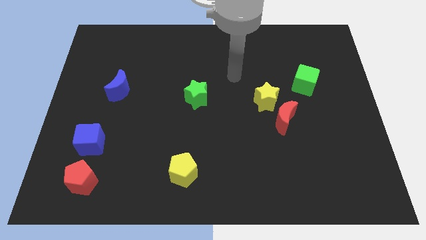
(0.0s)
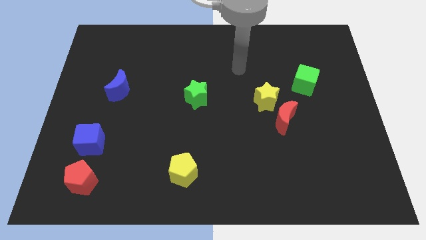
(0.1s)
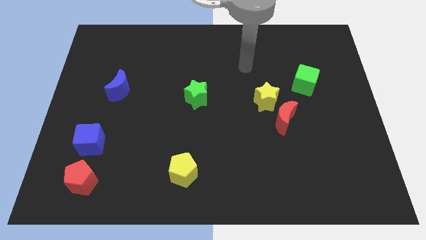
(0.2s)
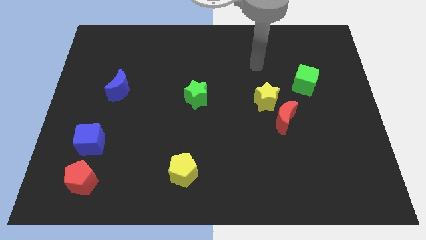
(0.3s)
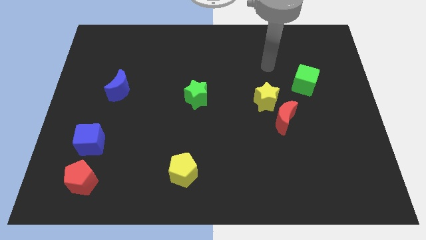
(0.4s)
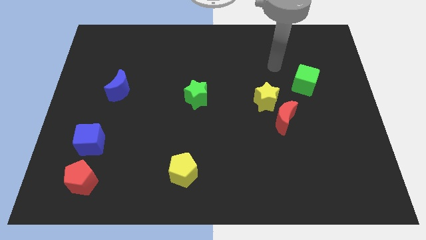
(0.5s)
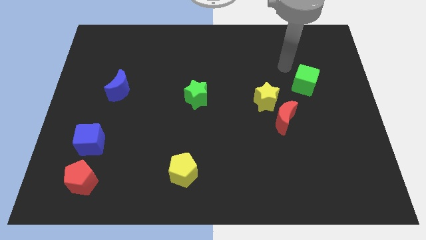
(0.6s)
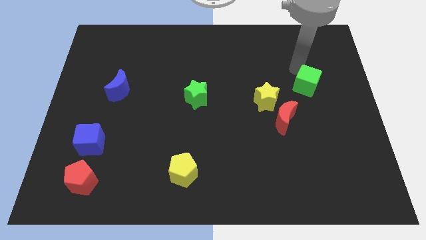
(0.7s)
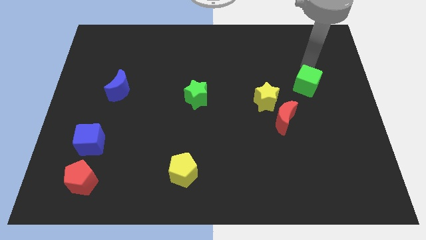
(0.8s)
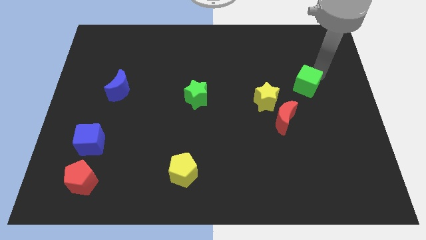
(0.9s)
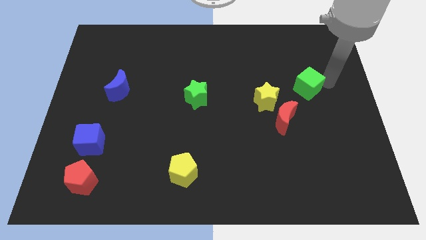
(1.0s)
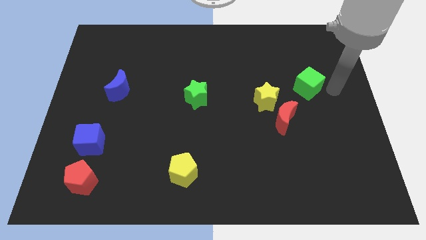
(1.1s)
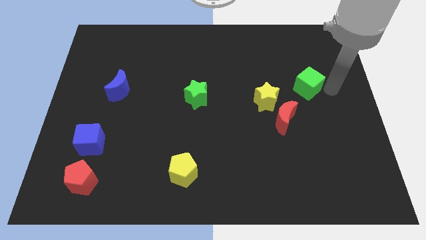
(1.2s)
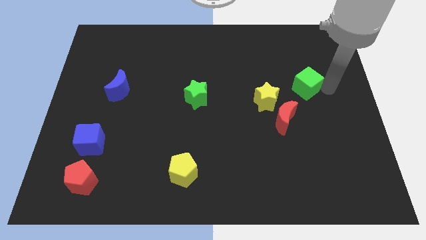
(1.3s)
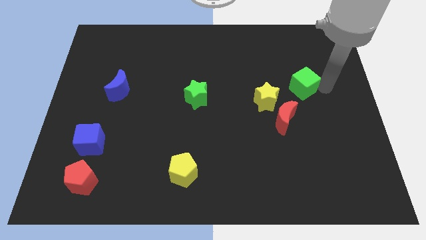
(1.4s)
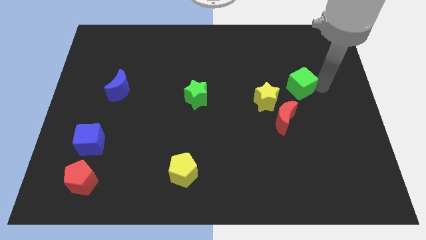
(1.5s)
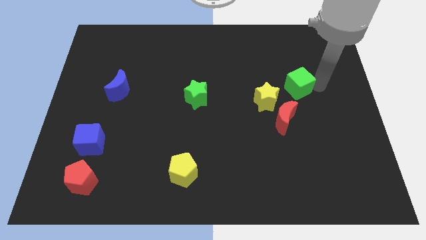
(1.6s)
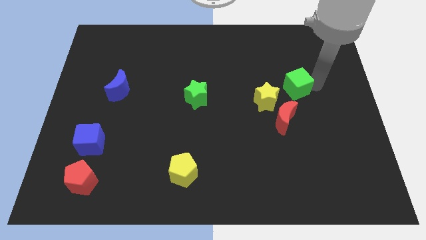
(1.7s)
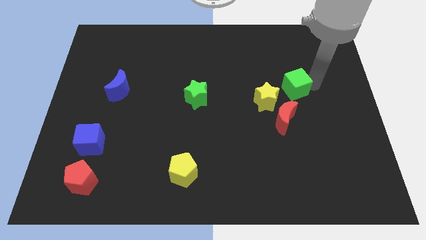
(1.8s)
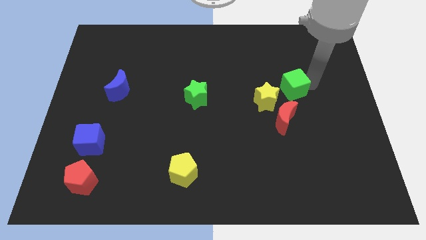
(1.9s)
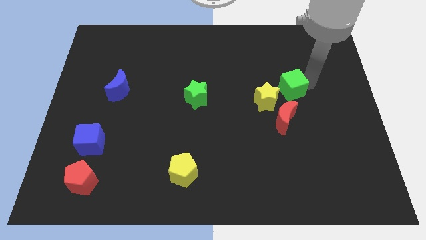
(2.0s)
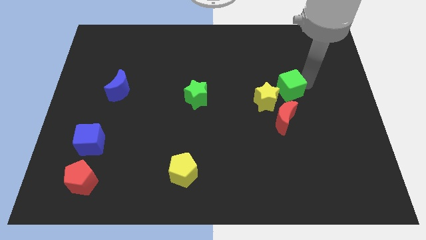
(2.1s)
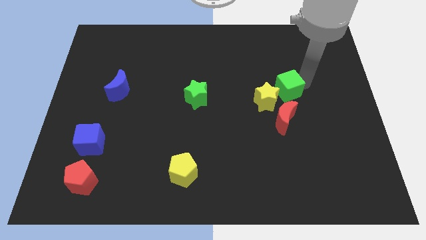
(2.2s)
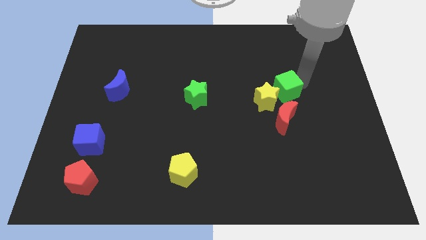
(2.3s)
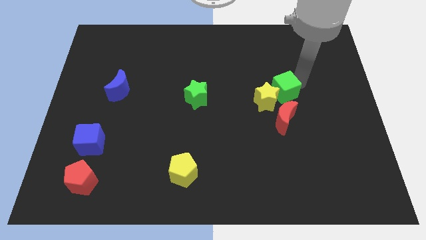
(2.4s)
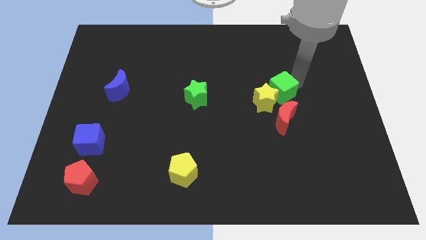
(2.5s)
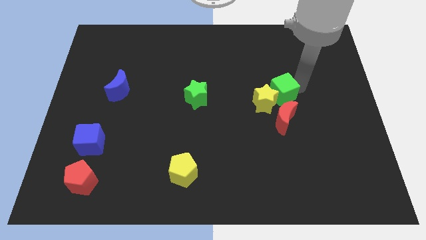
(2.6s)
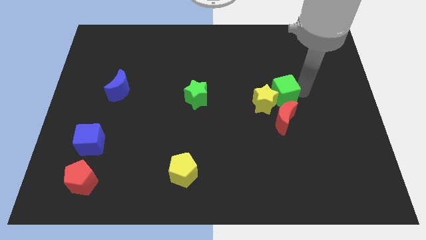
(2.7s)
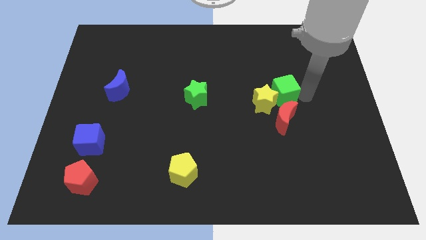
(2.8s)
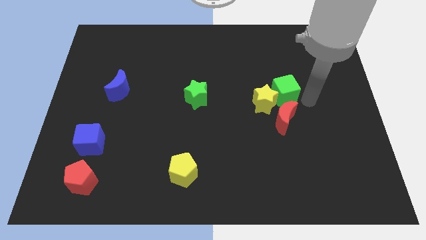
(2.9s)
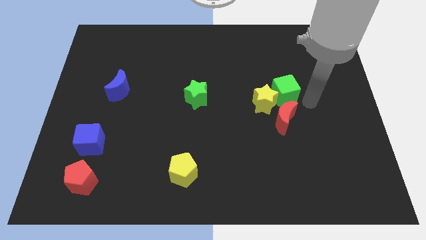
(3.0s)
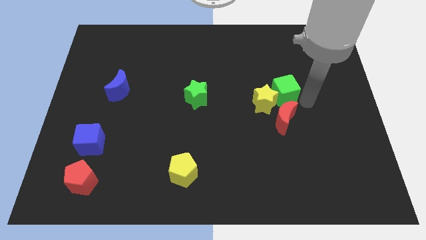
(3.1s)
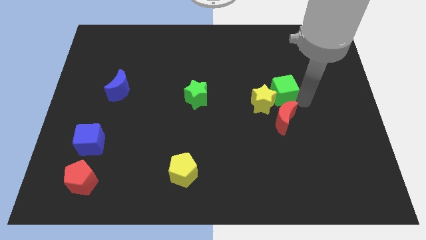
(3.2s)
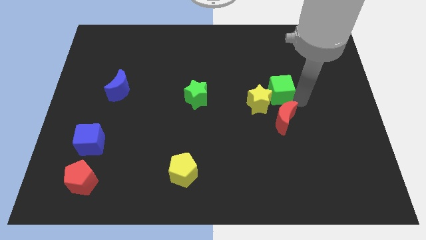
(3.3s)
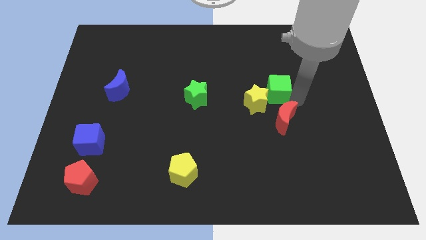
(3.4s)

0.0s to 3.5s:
push the green cube slightly diagonally down and to the left

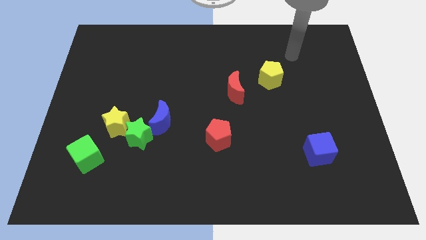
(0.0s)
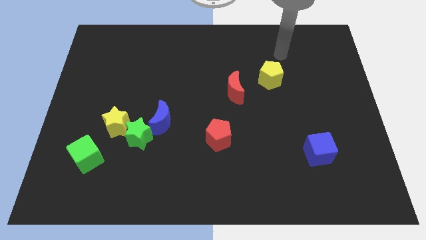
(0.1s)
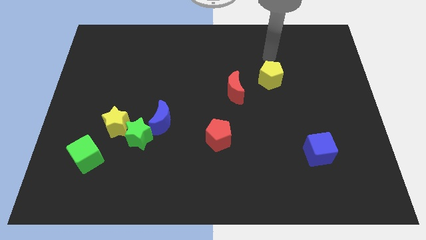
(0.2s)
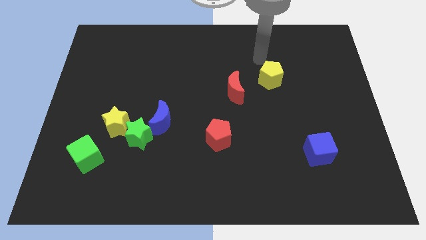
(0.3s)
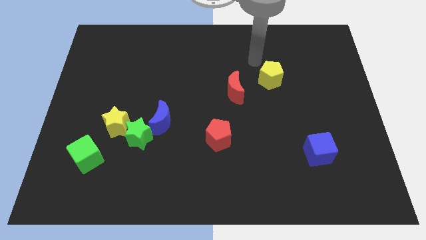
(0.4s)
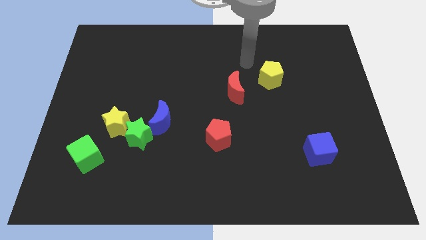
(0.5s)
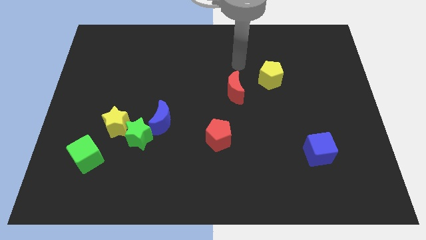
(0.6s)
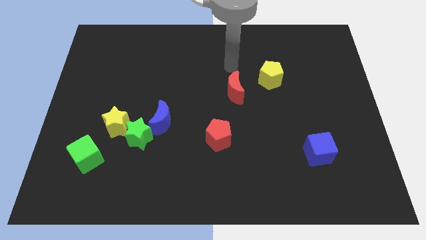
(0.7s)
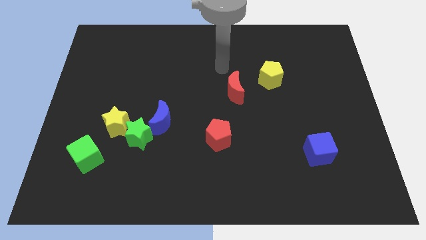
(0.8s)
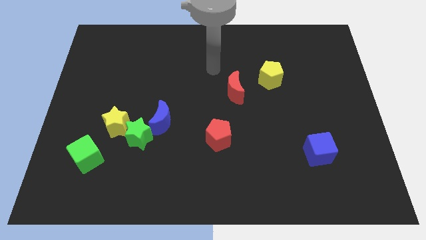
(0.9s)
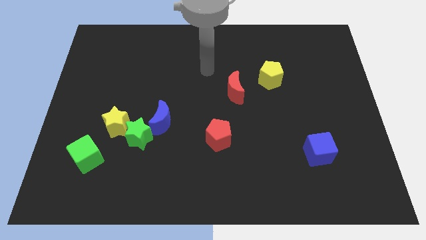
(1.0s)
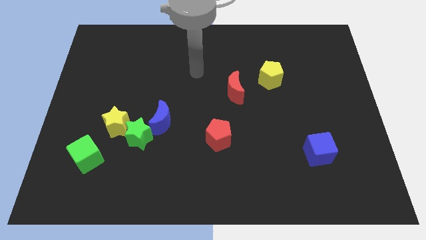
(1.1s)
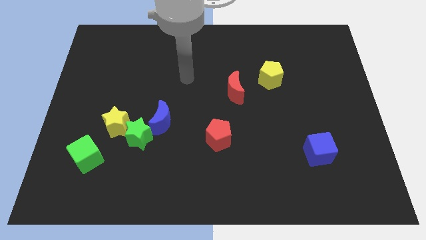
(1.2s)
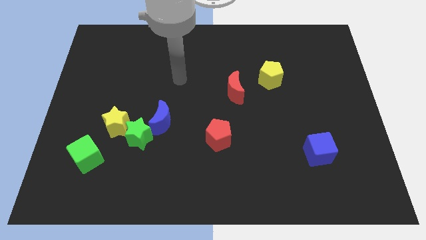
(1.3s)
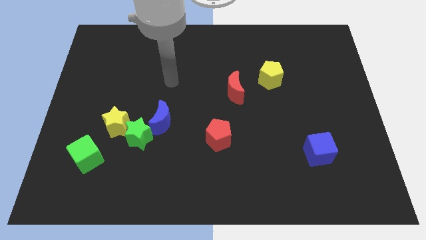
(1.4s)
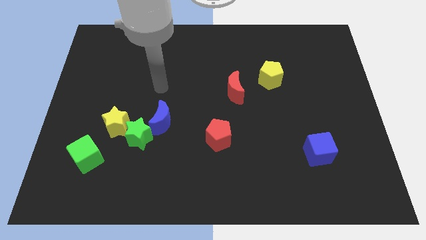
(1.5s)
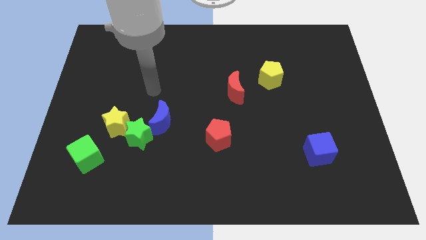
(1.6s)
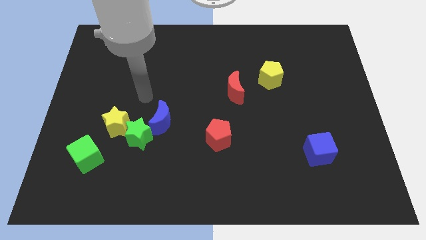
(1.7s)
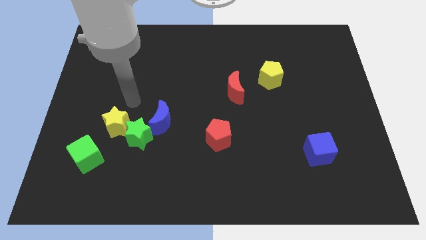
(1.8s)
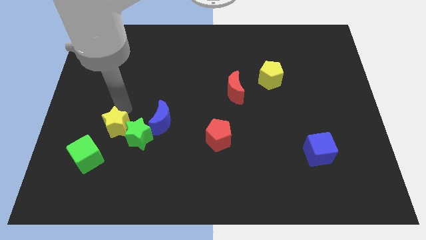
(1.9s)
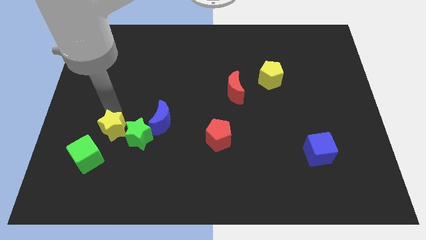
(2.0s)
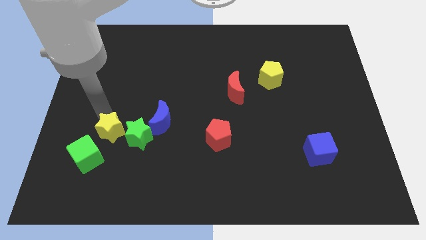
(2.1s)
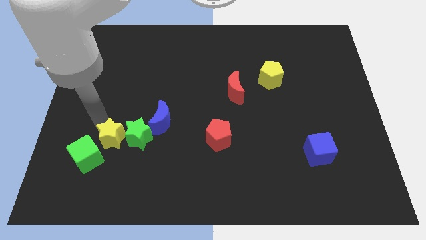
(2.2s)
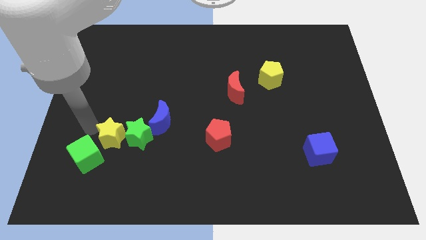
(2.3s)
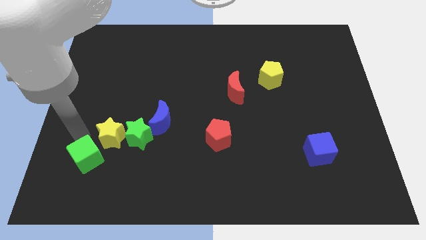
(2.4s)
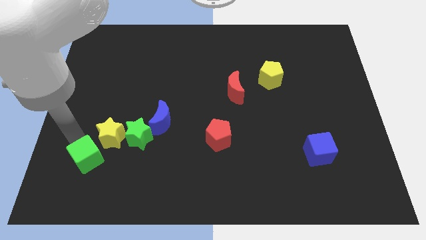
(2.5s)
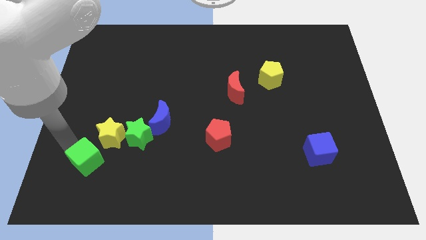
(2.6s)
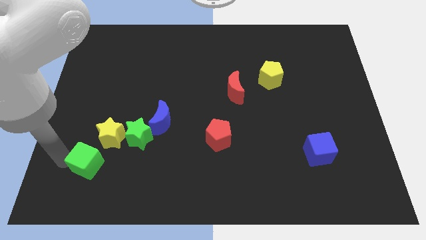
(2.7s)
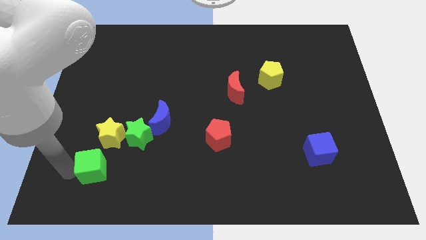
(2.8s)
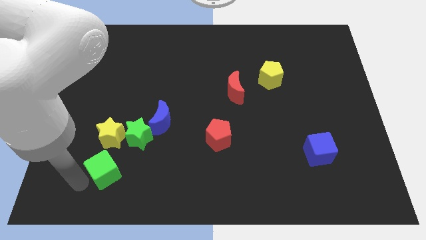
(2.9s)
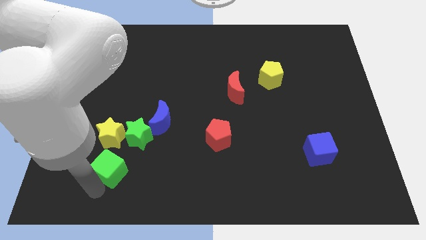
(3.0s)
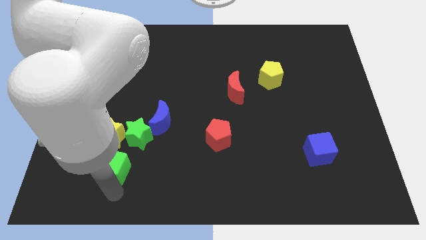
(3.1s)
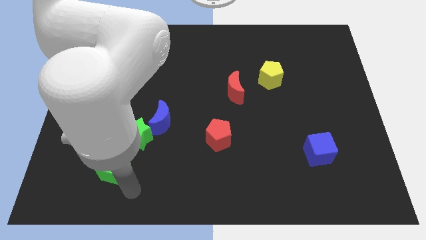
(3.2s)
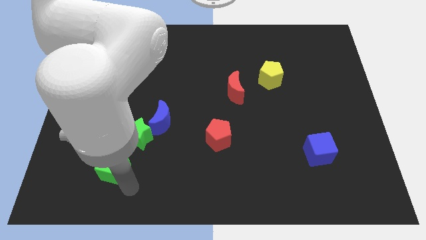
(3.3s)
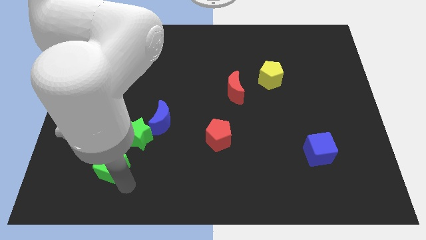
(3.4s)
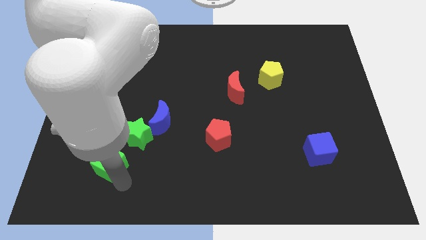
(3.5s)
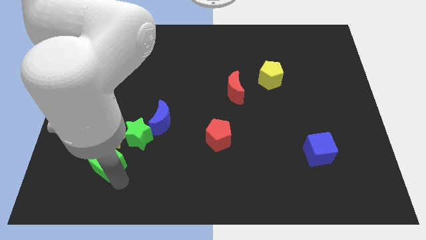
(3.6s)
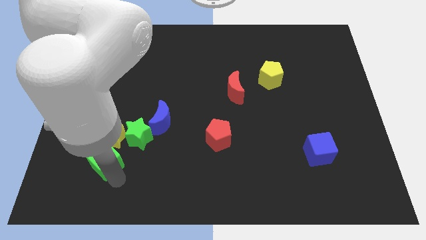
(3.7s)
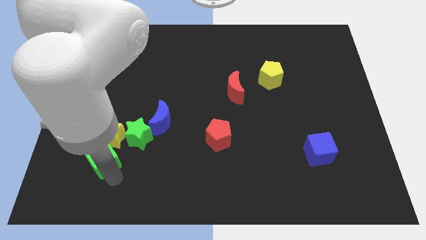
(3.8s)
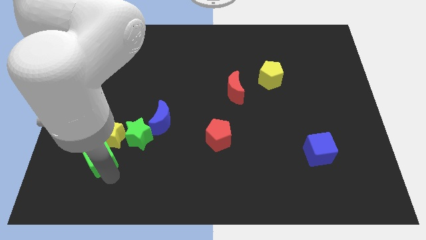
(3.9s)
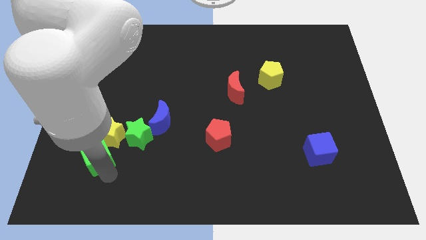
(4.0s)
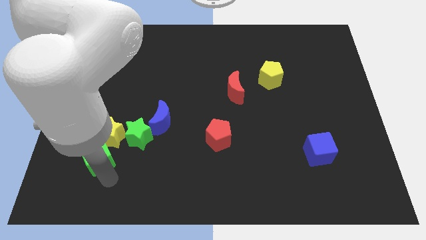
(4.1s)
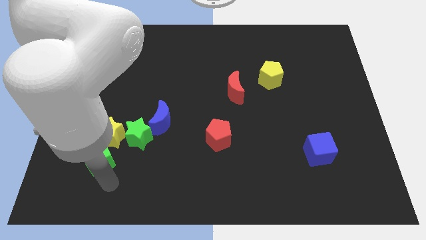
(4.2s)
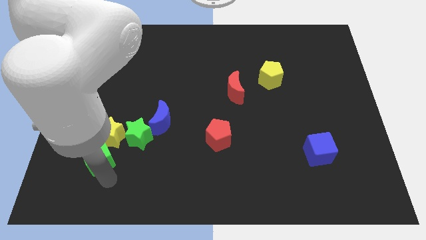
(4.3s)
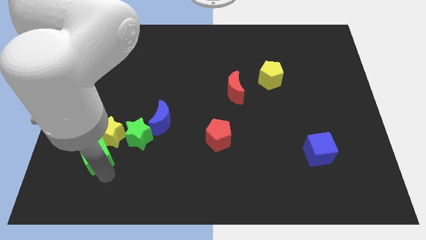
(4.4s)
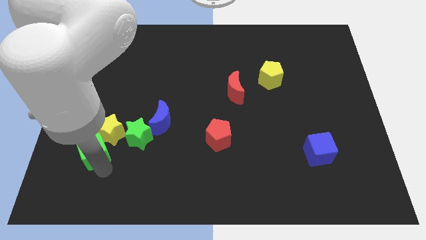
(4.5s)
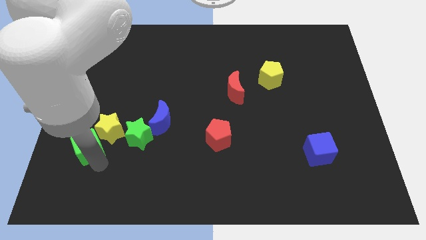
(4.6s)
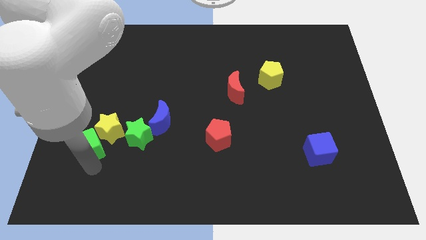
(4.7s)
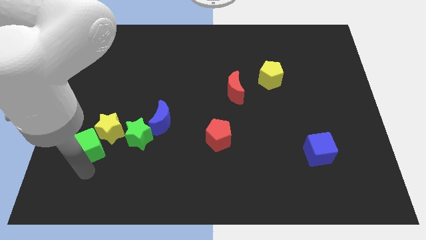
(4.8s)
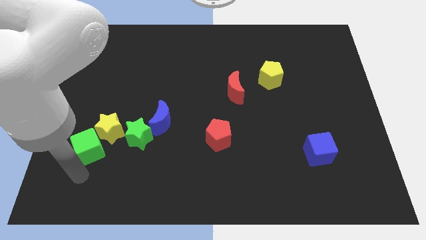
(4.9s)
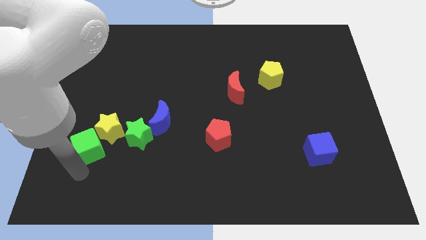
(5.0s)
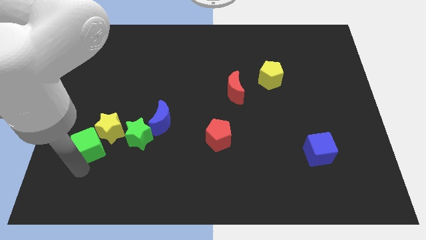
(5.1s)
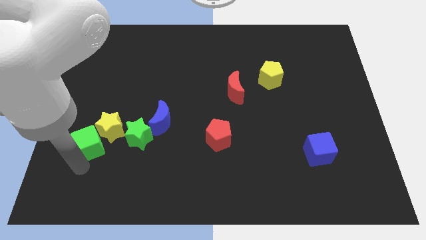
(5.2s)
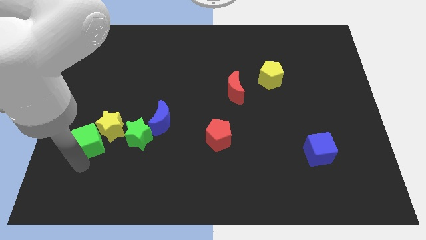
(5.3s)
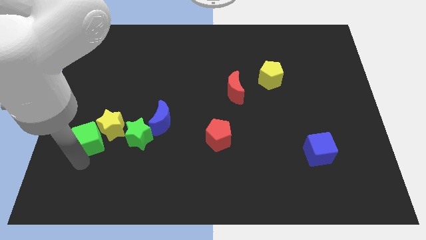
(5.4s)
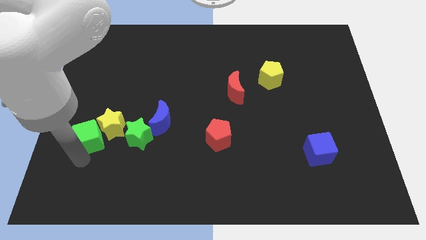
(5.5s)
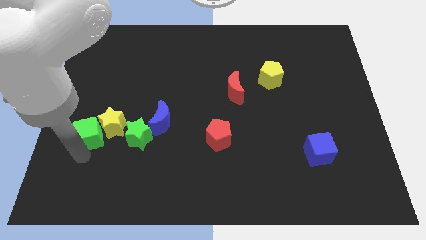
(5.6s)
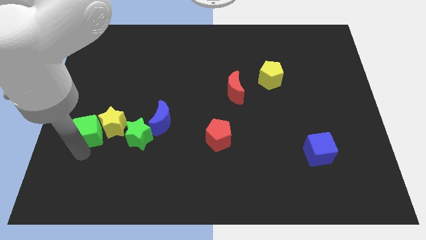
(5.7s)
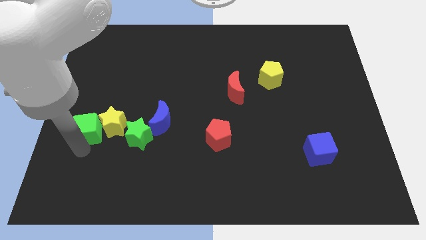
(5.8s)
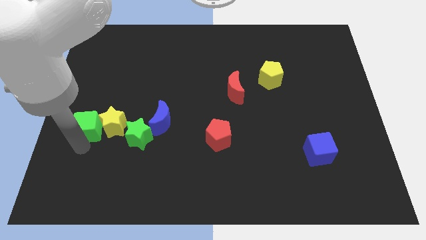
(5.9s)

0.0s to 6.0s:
slightly move the green cube up
